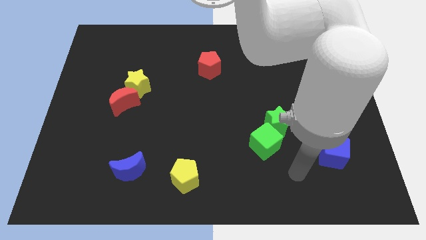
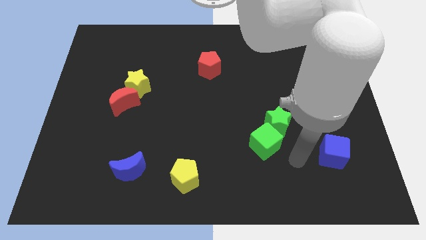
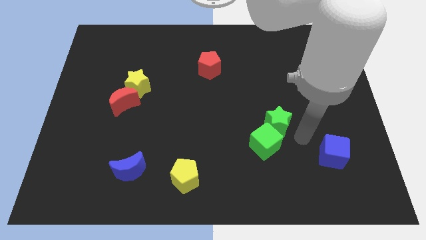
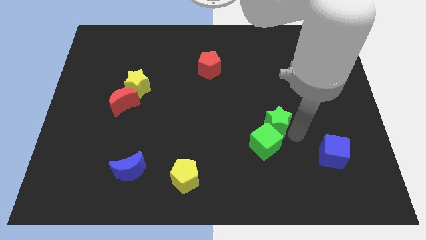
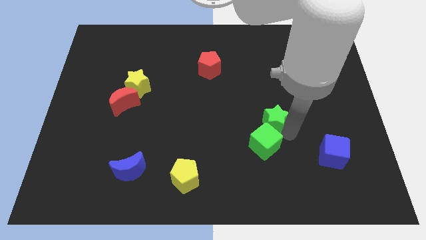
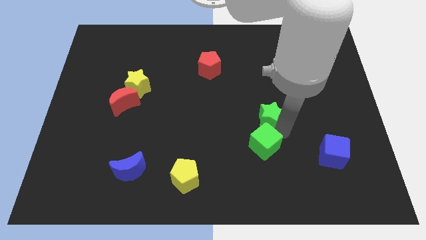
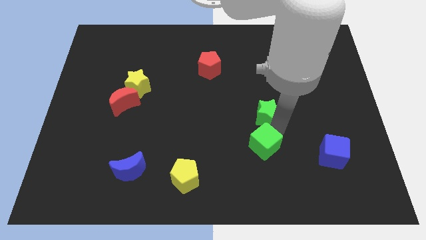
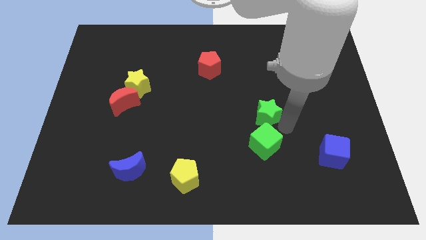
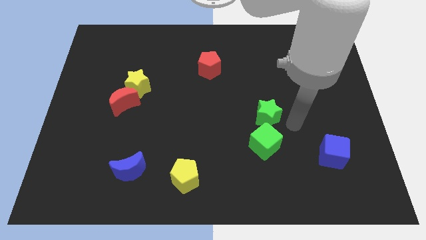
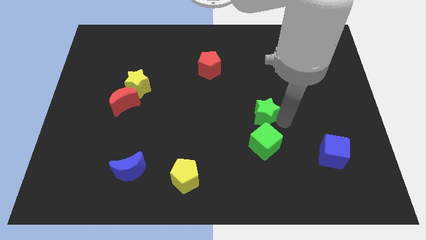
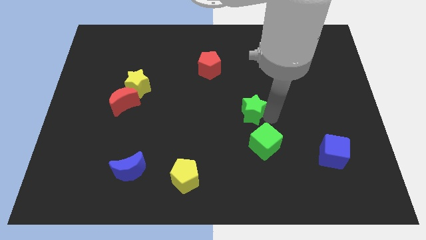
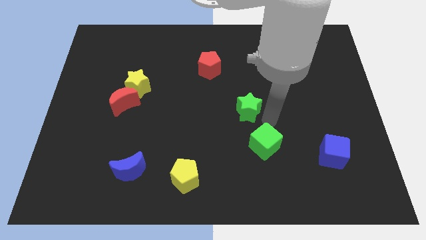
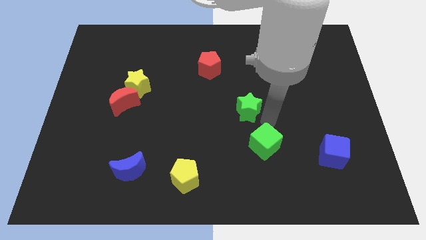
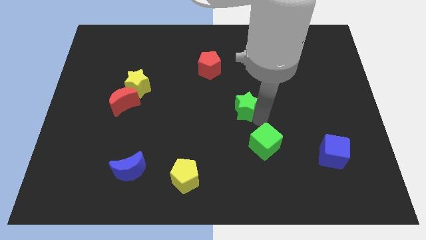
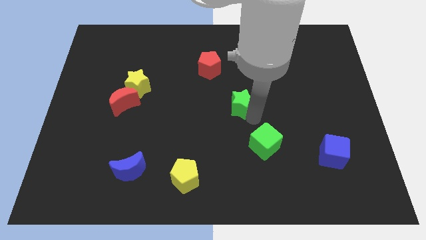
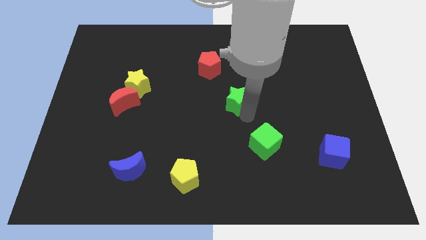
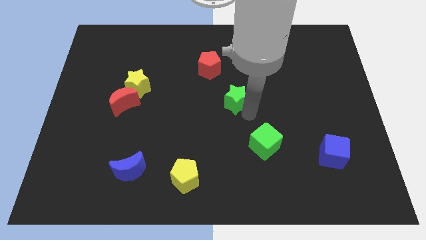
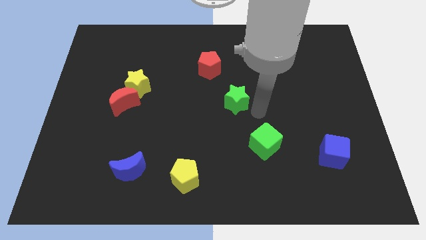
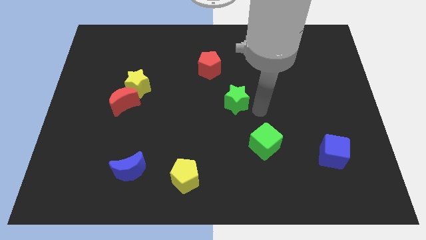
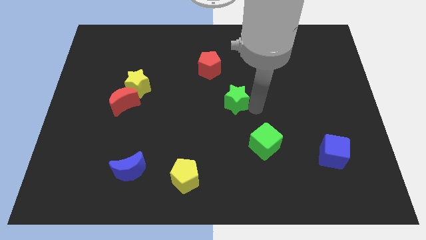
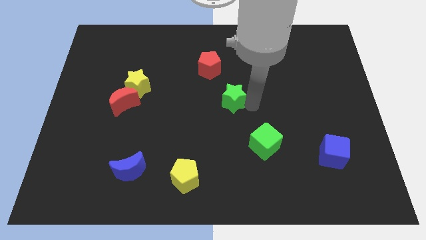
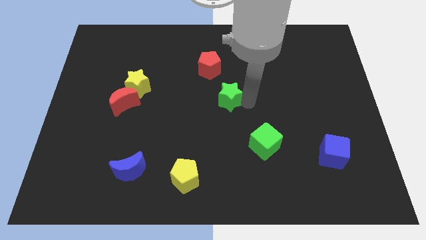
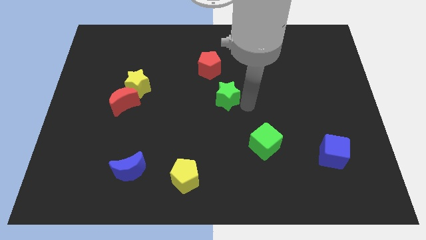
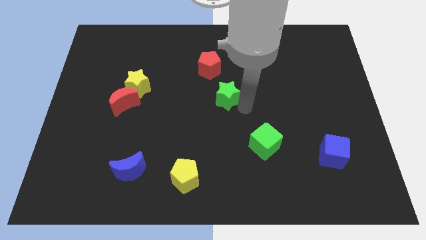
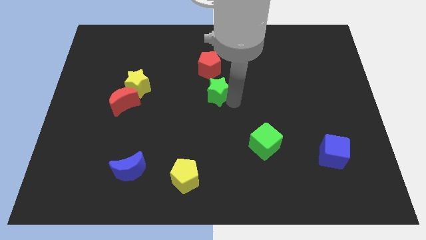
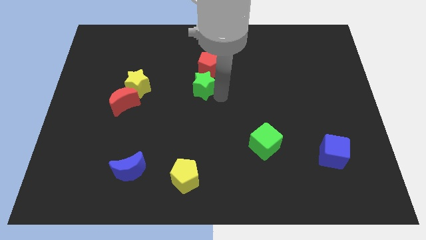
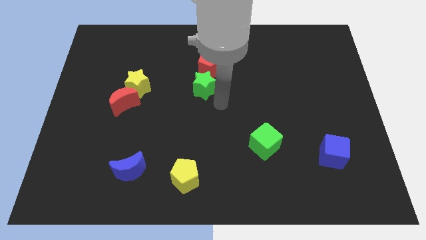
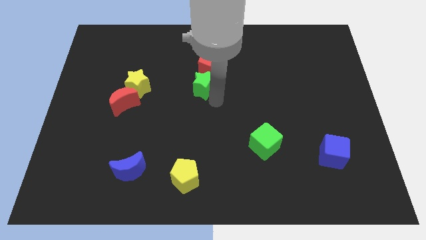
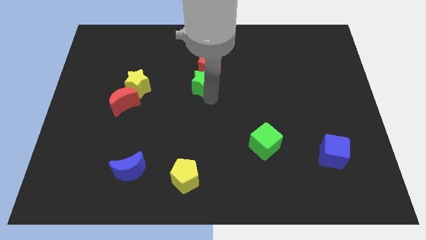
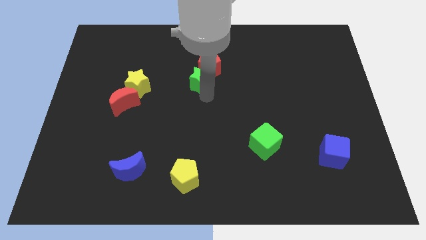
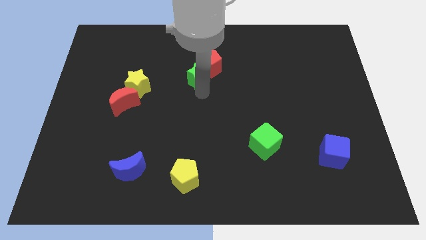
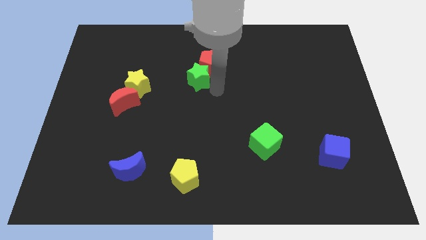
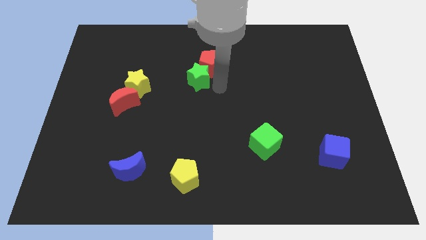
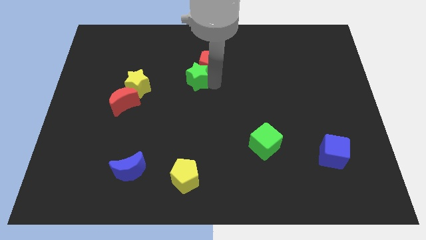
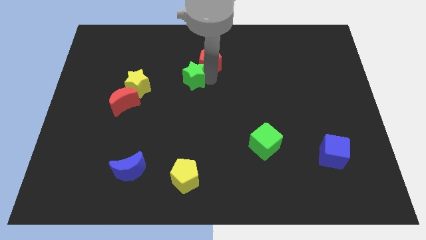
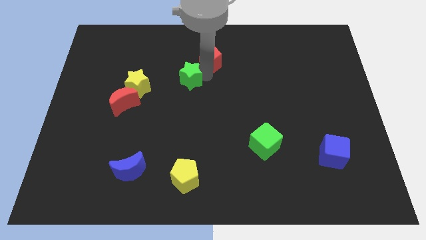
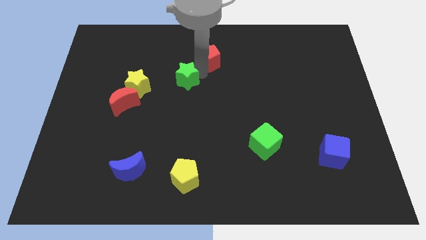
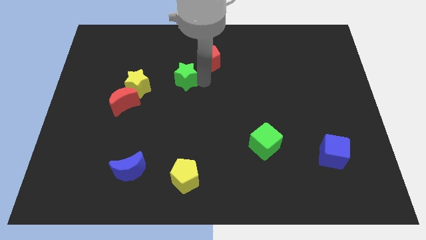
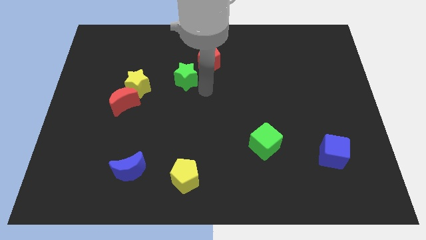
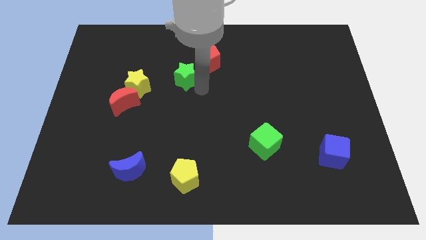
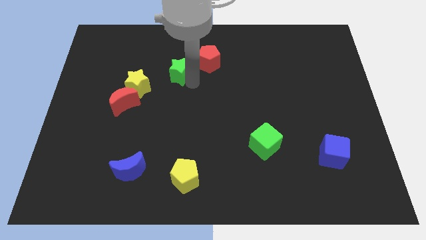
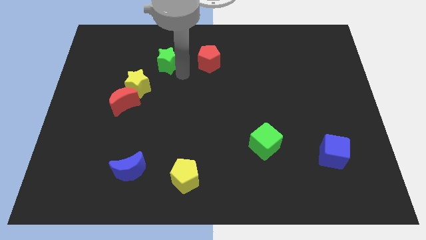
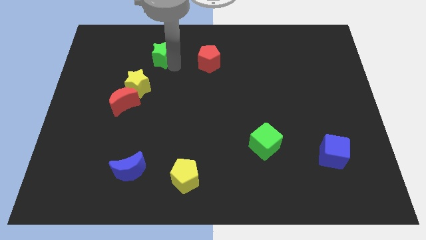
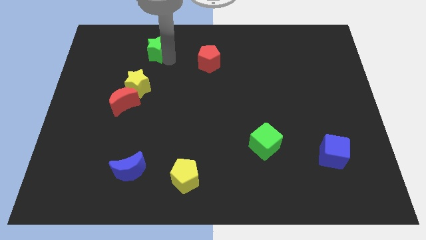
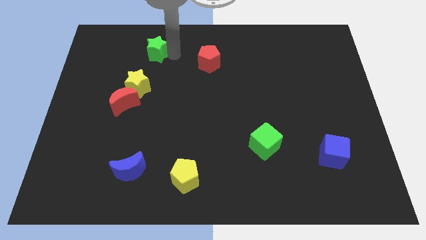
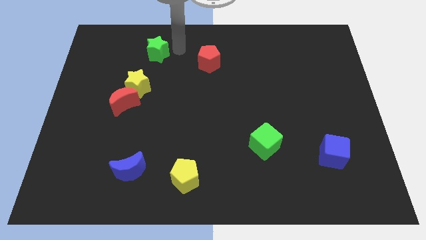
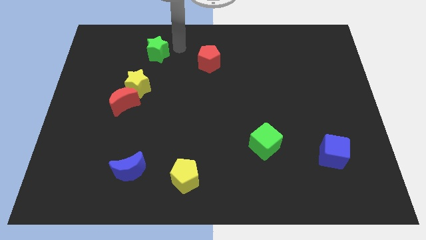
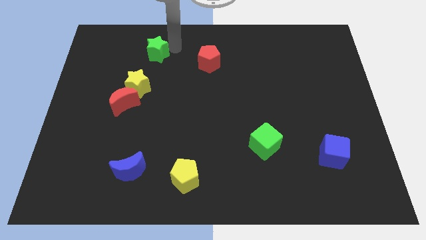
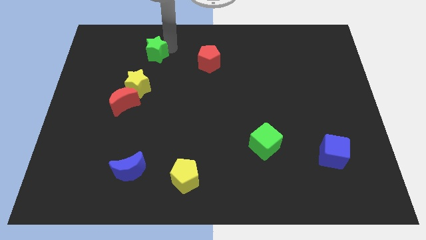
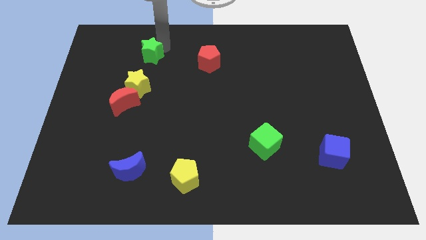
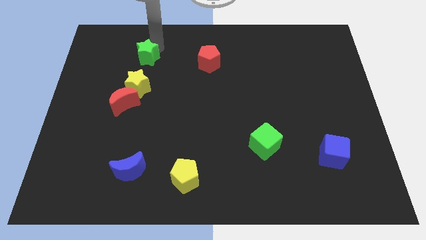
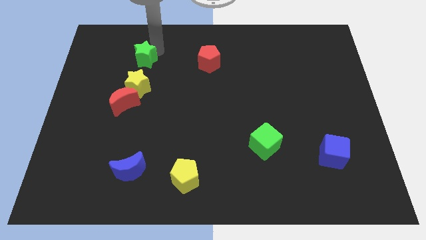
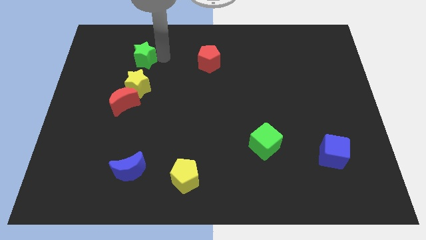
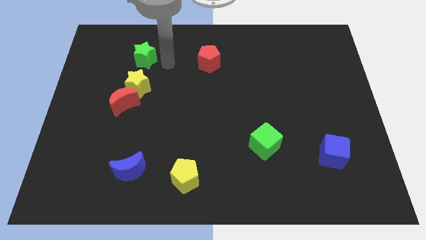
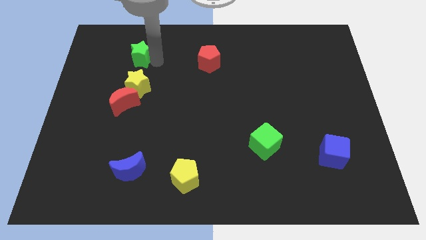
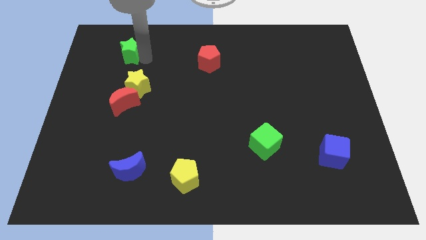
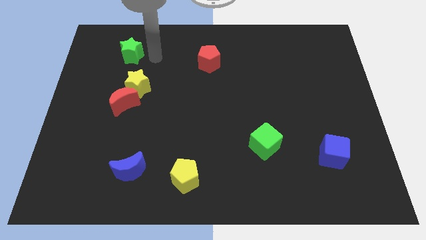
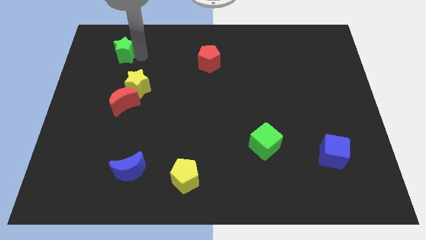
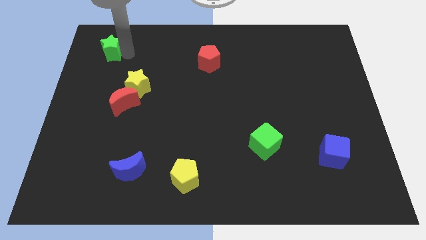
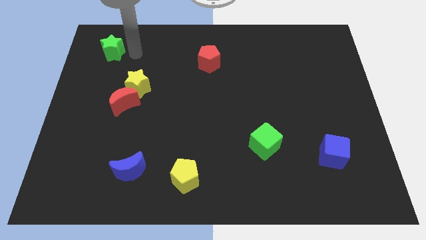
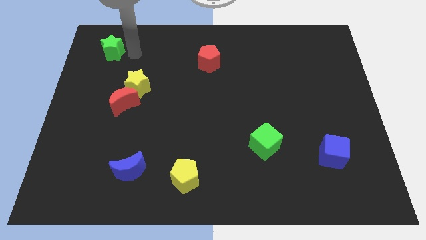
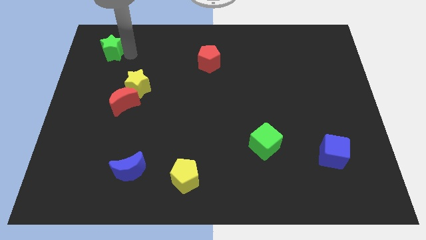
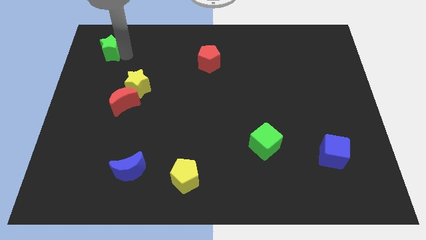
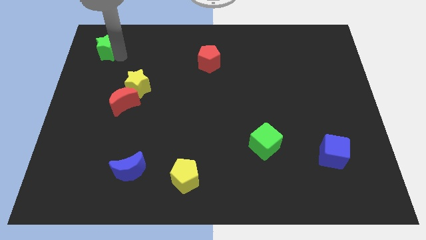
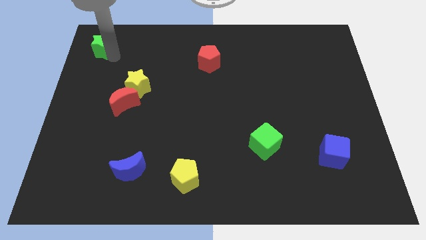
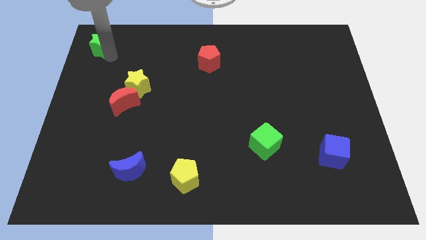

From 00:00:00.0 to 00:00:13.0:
put the green star to the top left
